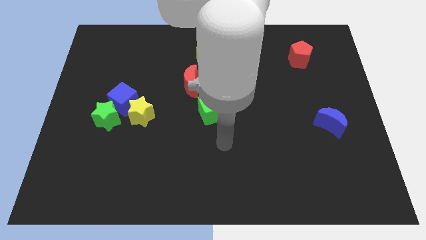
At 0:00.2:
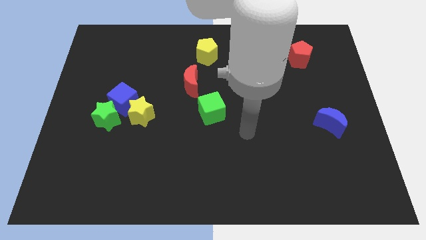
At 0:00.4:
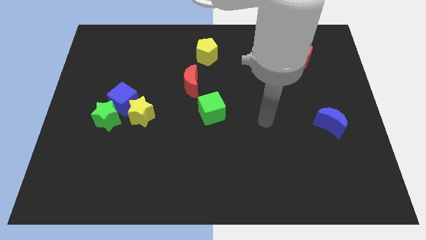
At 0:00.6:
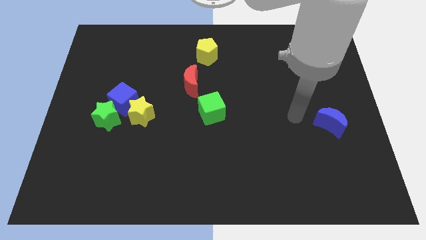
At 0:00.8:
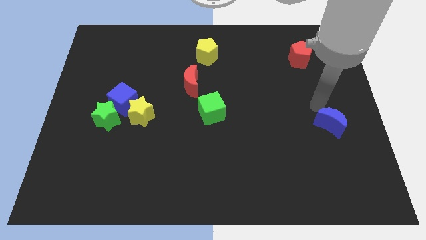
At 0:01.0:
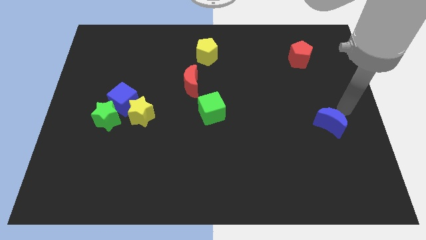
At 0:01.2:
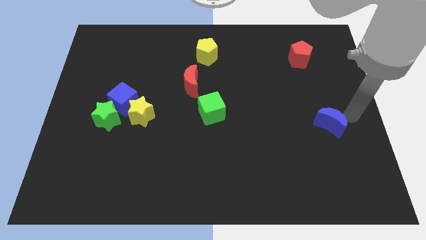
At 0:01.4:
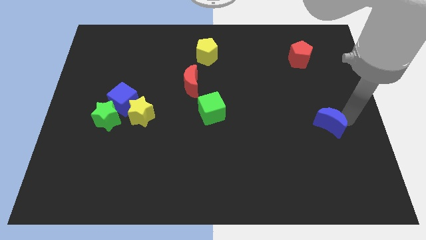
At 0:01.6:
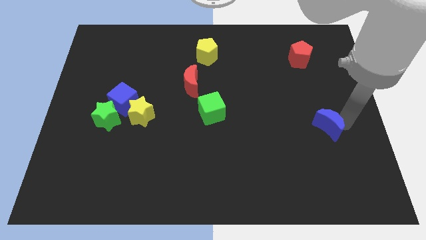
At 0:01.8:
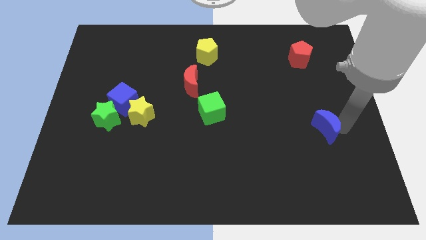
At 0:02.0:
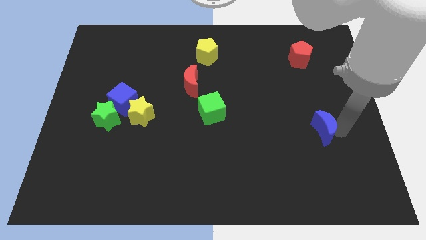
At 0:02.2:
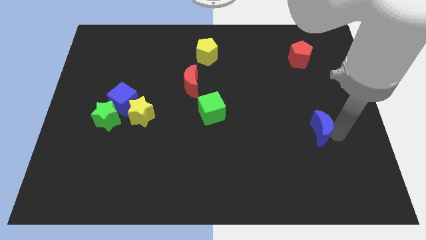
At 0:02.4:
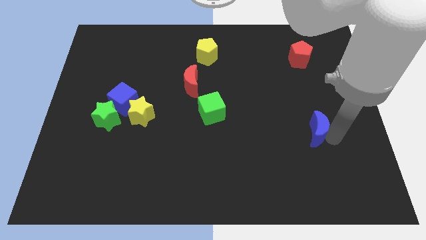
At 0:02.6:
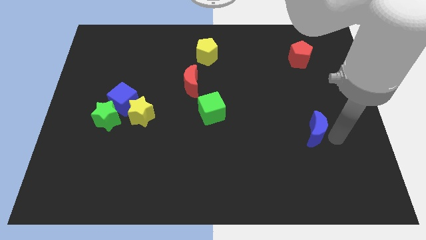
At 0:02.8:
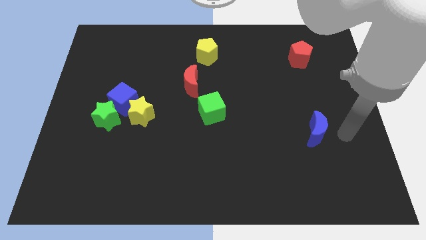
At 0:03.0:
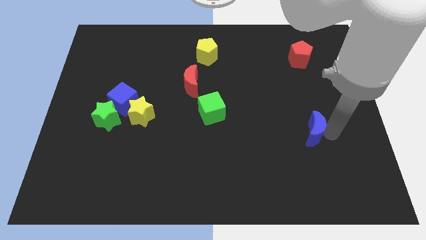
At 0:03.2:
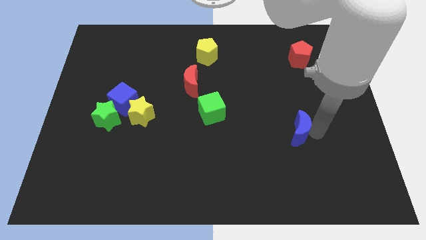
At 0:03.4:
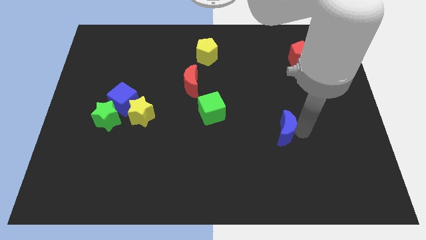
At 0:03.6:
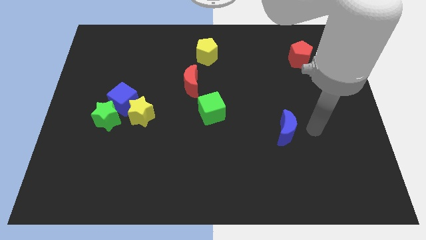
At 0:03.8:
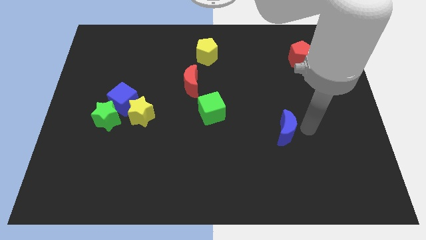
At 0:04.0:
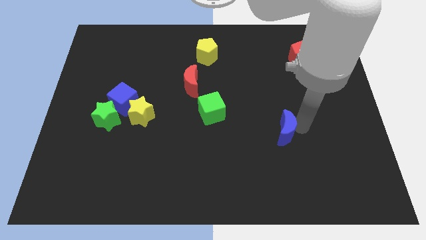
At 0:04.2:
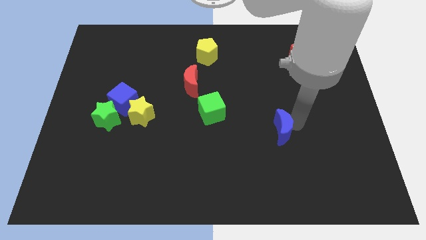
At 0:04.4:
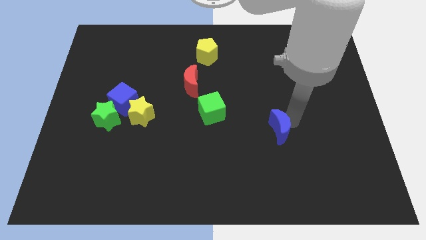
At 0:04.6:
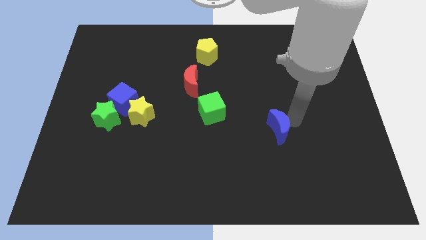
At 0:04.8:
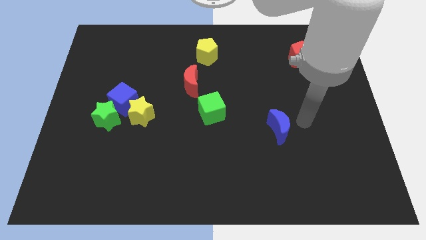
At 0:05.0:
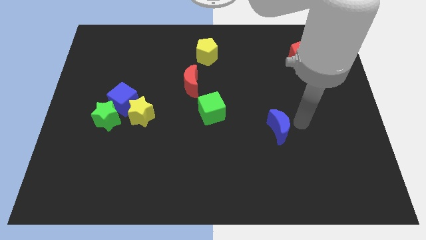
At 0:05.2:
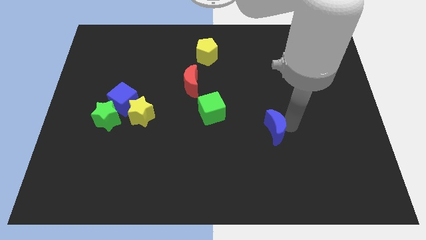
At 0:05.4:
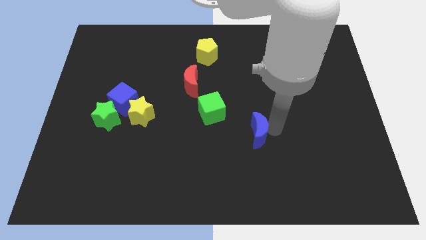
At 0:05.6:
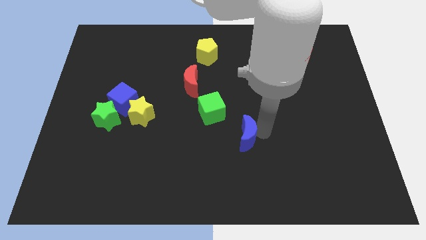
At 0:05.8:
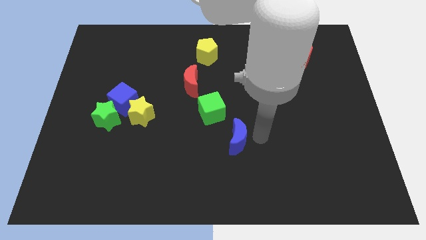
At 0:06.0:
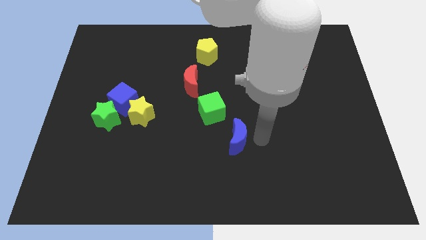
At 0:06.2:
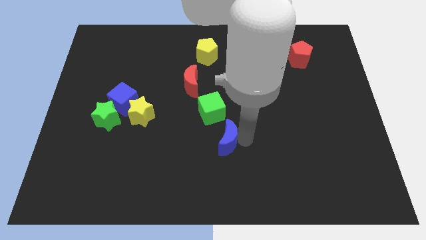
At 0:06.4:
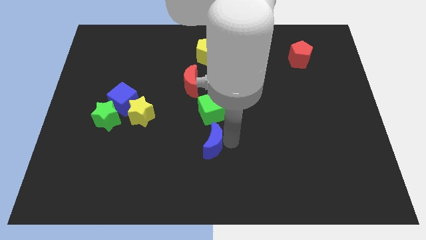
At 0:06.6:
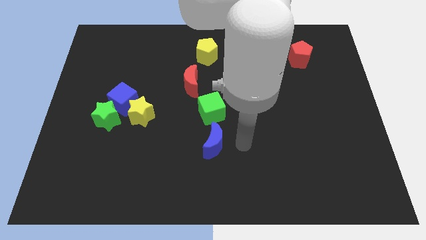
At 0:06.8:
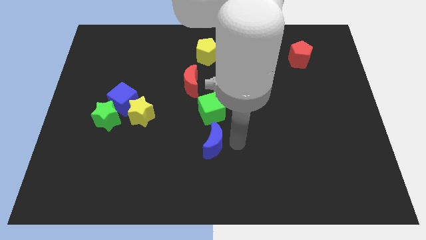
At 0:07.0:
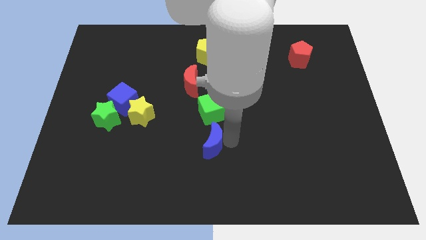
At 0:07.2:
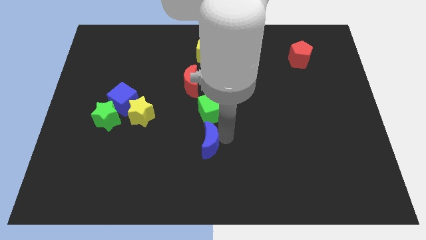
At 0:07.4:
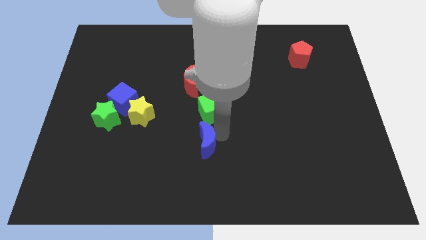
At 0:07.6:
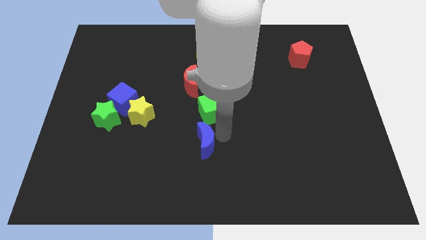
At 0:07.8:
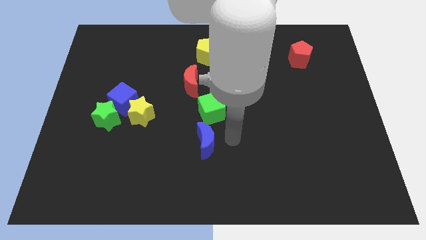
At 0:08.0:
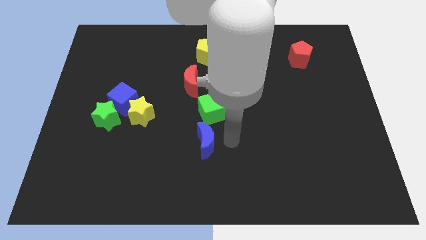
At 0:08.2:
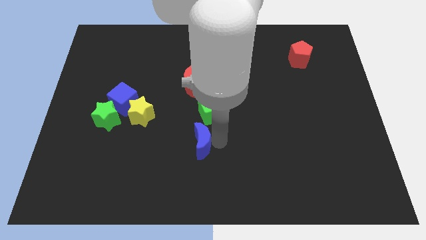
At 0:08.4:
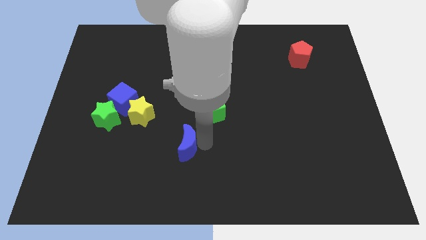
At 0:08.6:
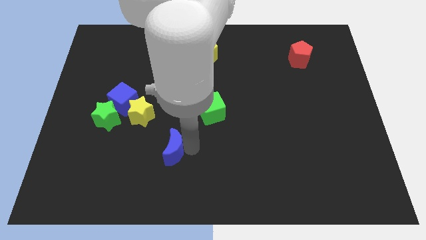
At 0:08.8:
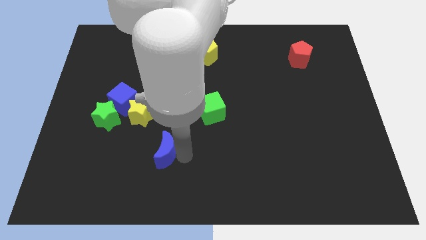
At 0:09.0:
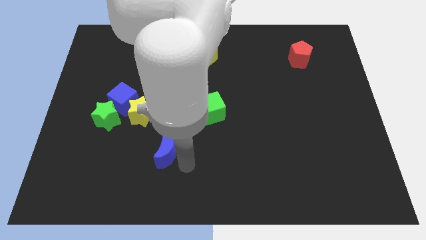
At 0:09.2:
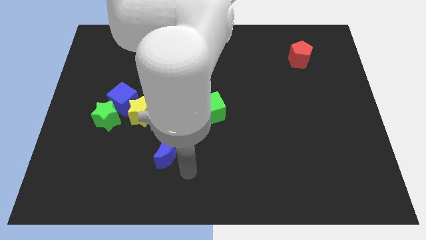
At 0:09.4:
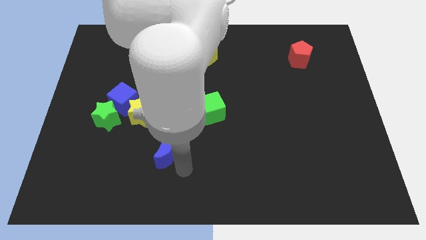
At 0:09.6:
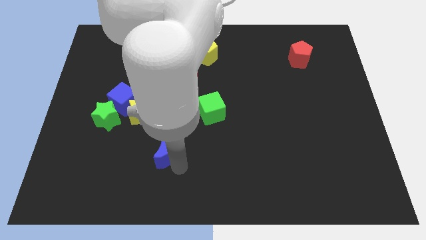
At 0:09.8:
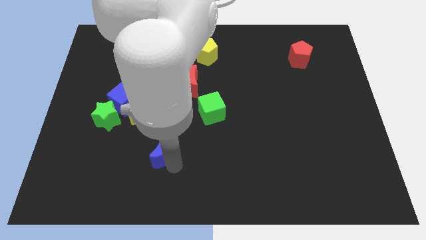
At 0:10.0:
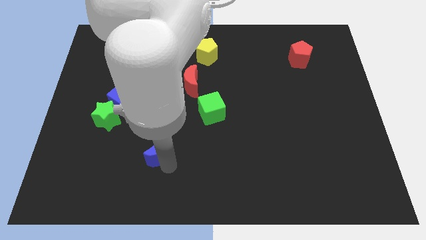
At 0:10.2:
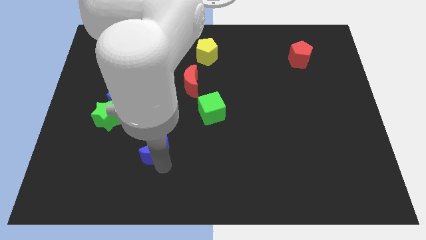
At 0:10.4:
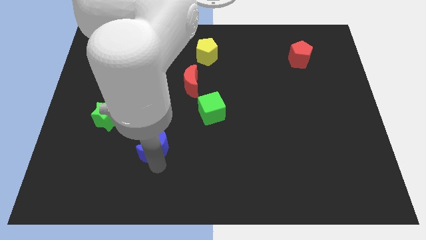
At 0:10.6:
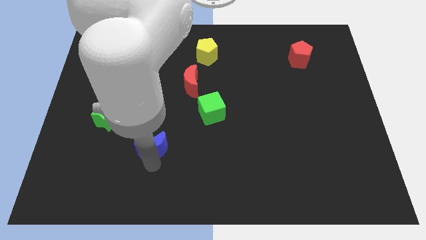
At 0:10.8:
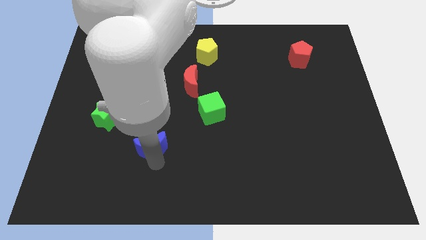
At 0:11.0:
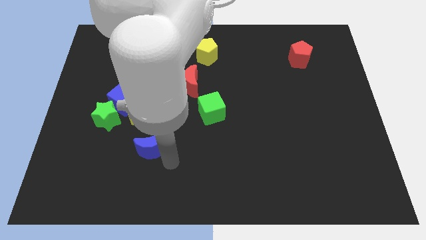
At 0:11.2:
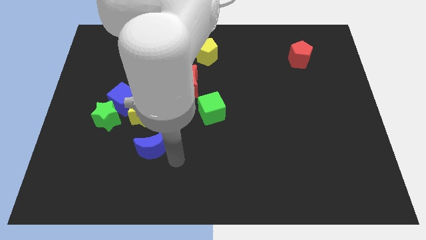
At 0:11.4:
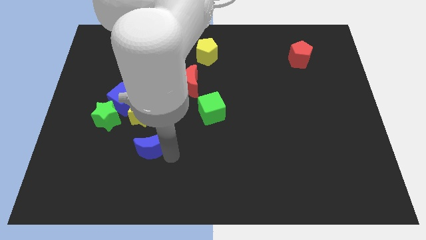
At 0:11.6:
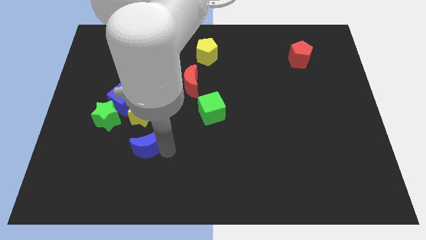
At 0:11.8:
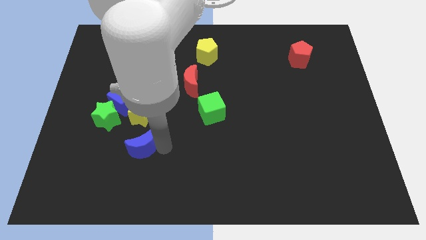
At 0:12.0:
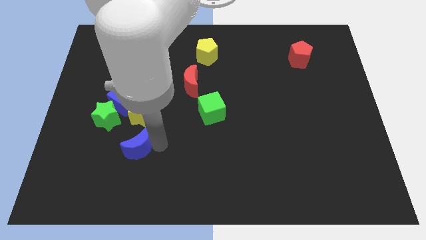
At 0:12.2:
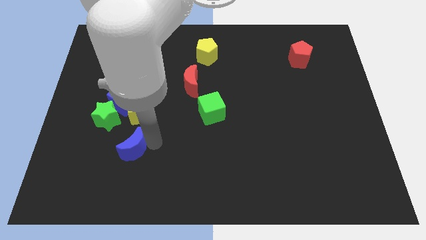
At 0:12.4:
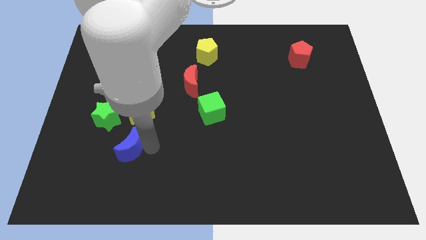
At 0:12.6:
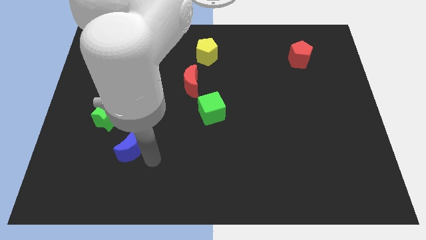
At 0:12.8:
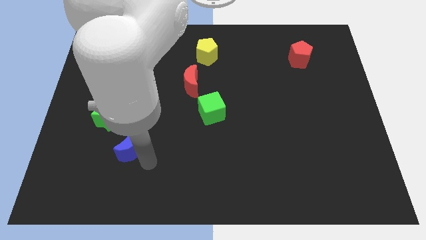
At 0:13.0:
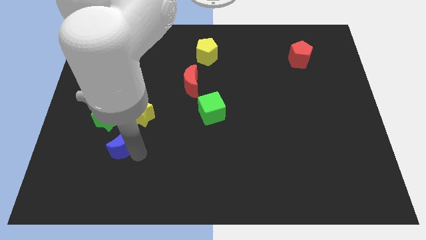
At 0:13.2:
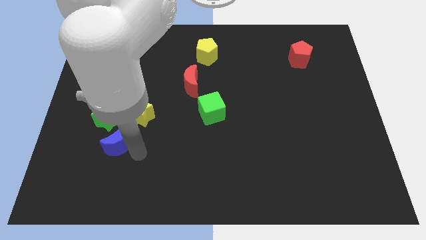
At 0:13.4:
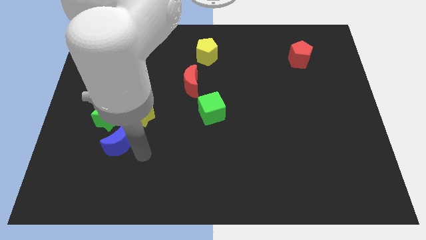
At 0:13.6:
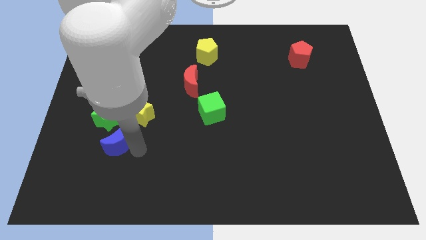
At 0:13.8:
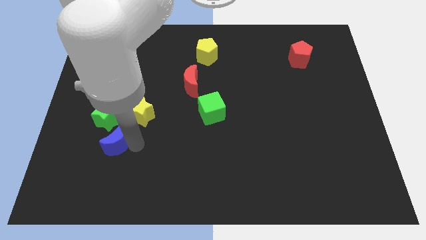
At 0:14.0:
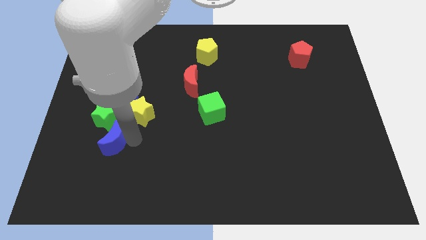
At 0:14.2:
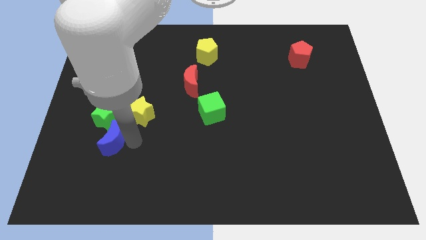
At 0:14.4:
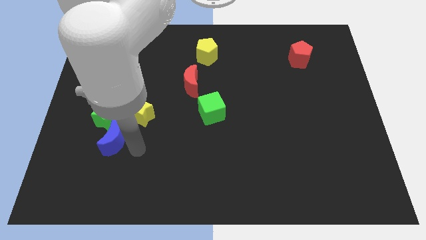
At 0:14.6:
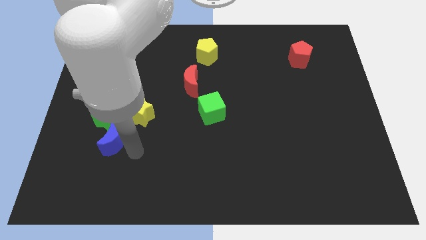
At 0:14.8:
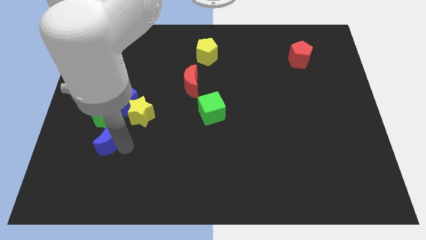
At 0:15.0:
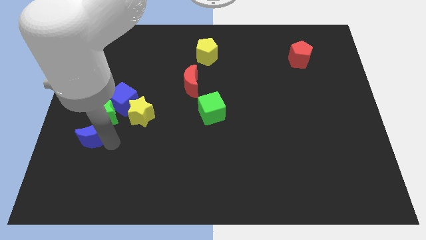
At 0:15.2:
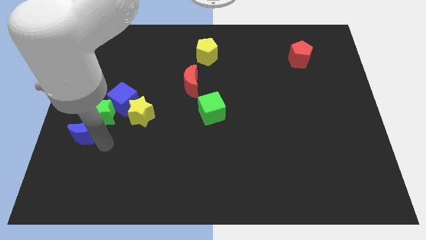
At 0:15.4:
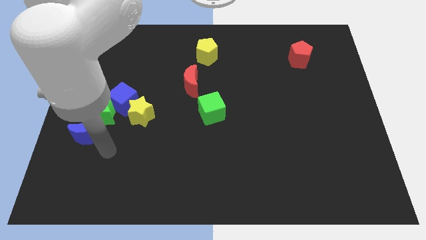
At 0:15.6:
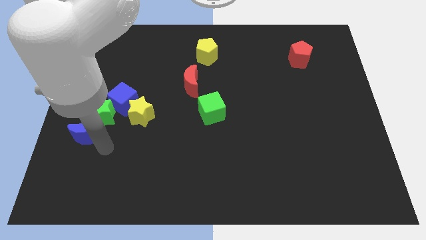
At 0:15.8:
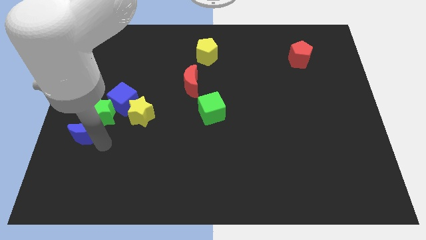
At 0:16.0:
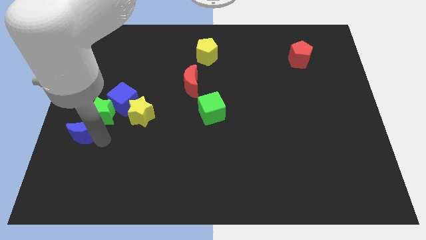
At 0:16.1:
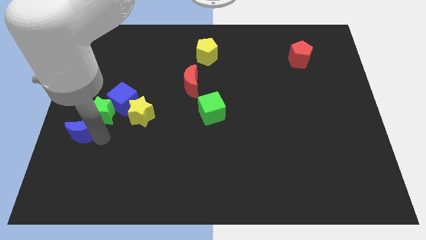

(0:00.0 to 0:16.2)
push the blue moon to the left side of the board
